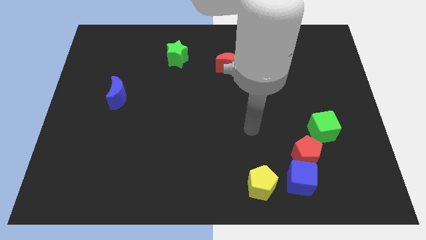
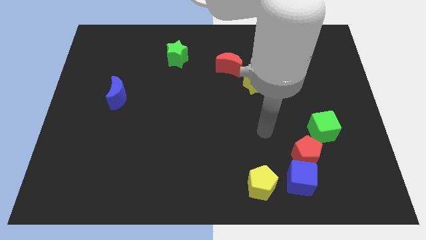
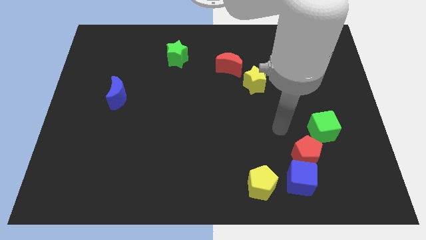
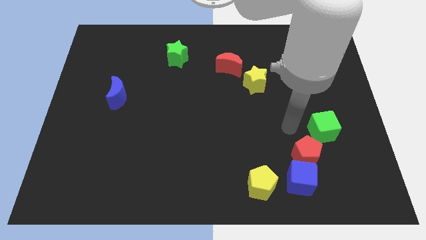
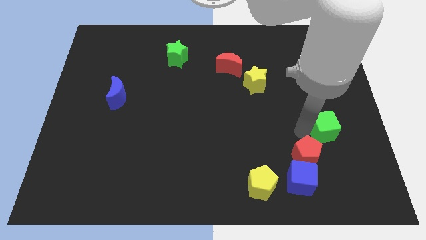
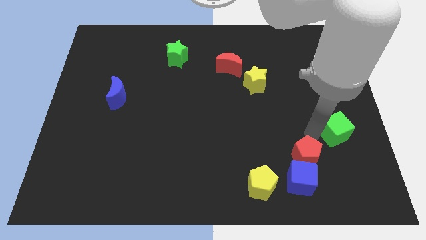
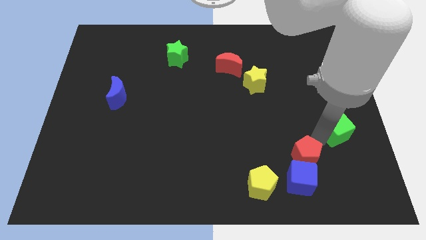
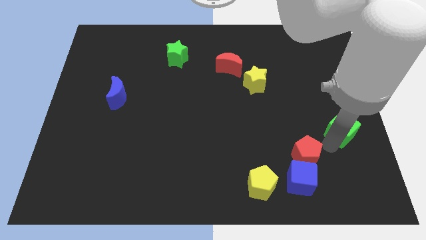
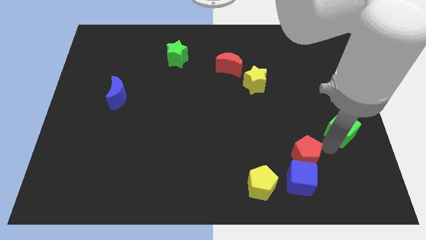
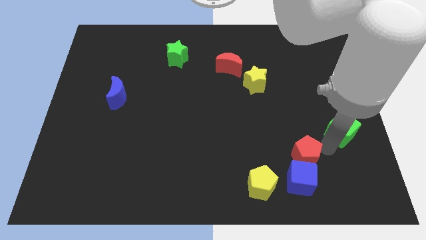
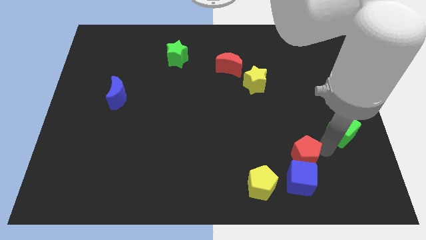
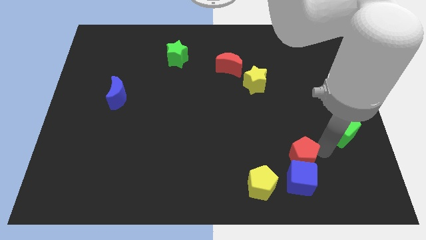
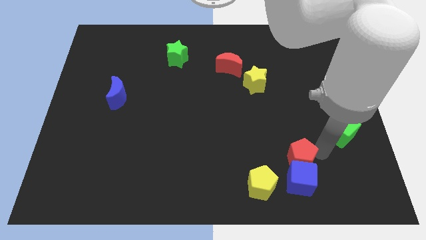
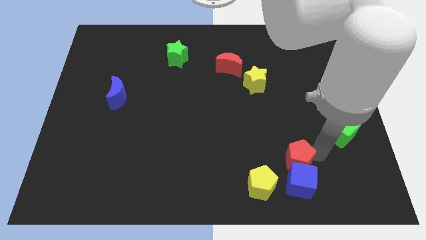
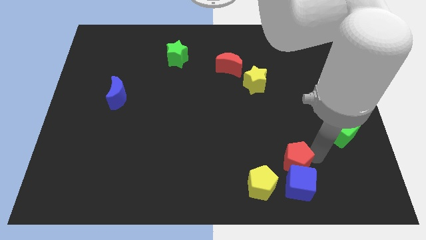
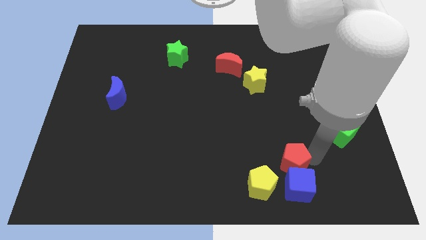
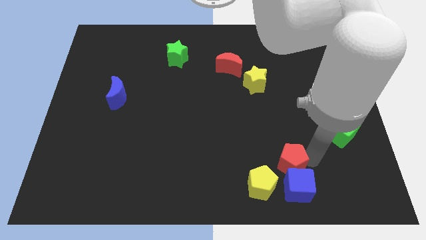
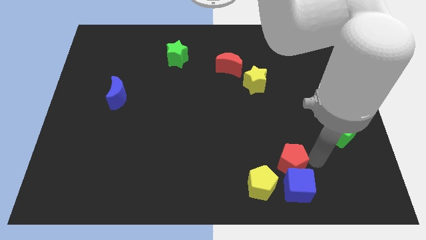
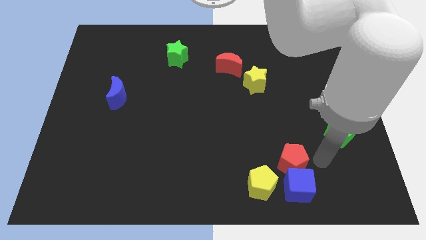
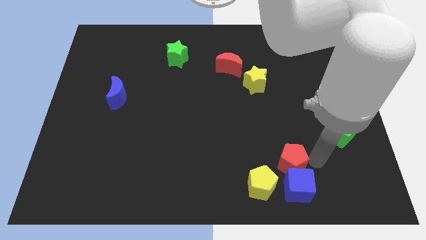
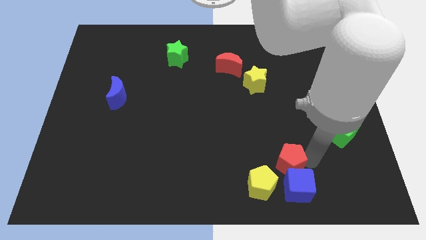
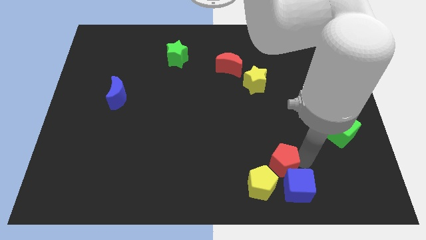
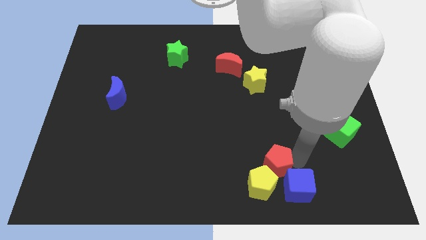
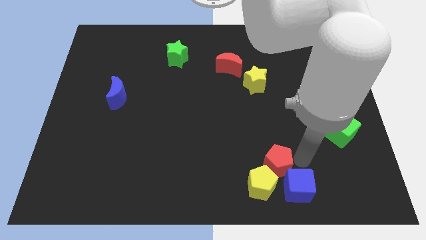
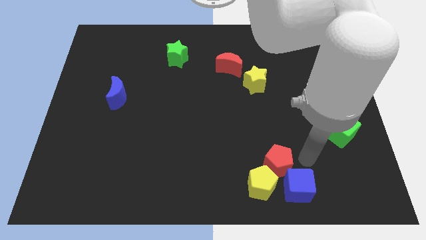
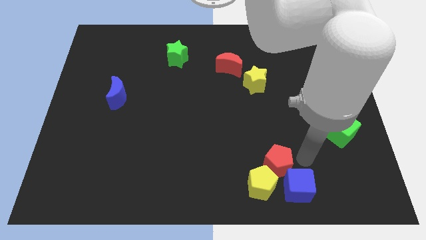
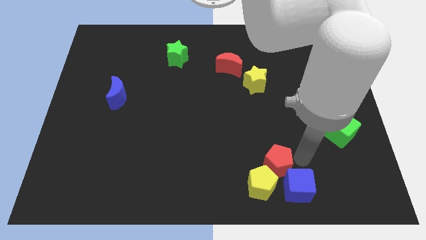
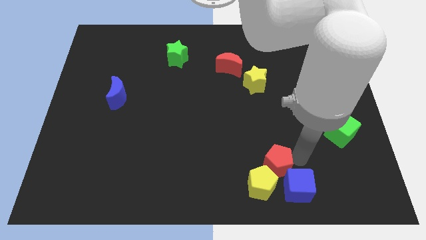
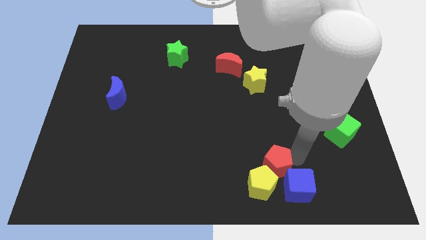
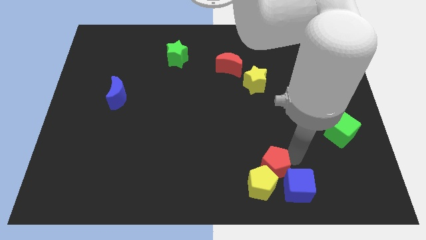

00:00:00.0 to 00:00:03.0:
separate the red pentagon from the blue cube and green cube

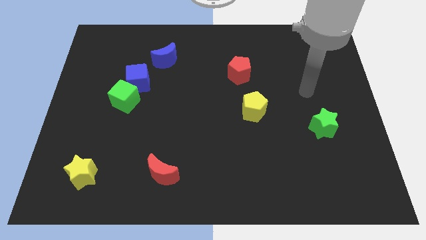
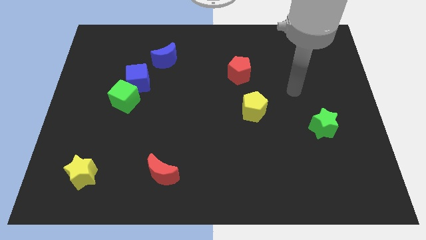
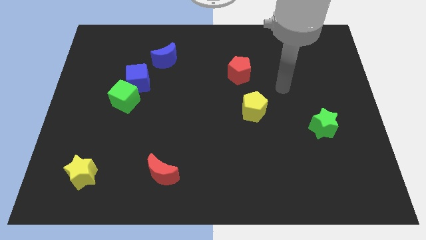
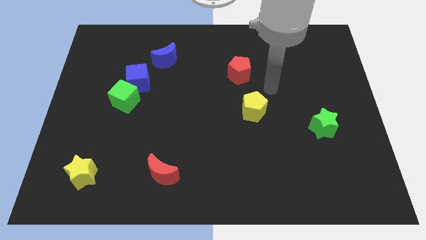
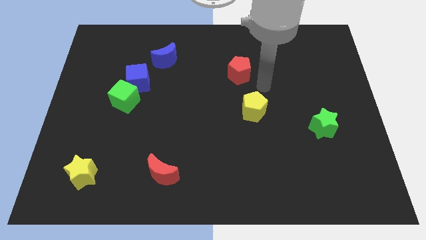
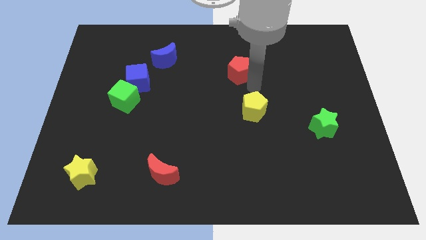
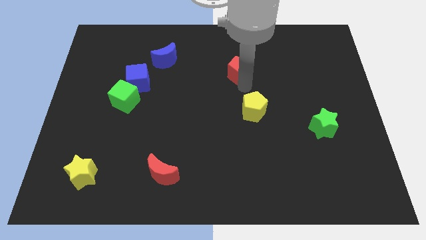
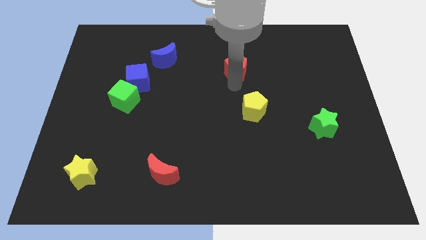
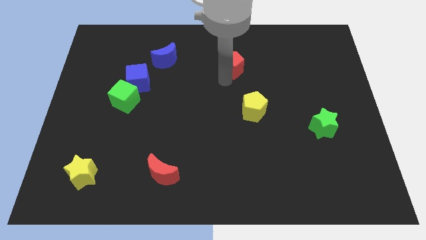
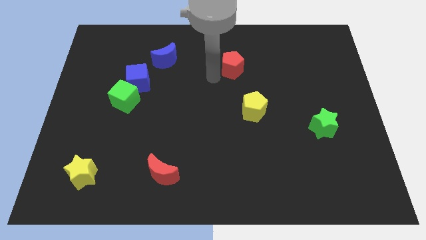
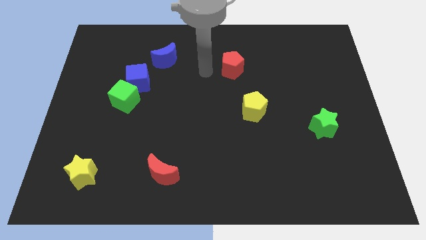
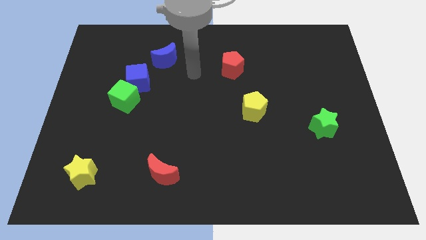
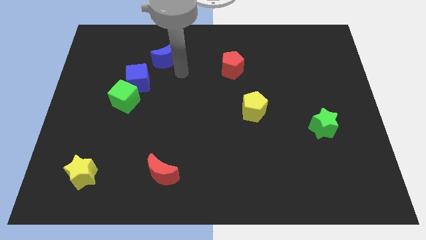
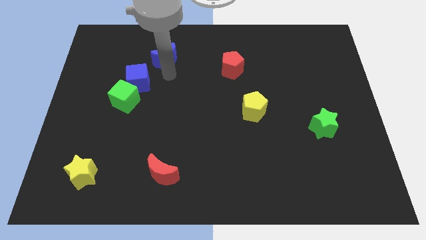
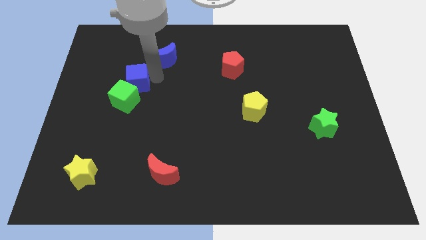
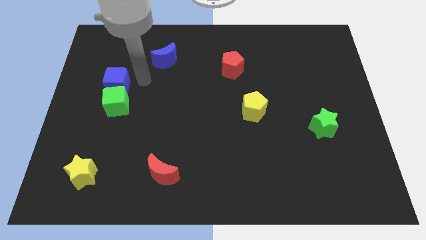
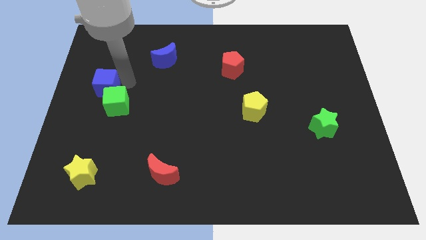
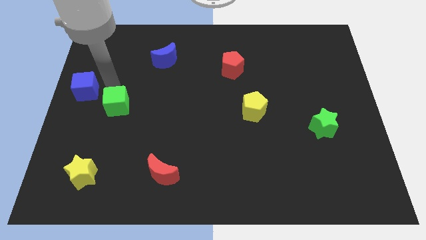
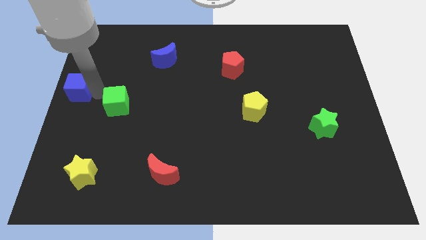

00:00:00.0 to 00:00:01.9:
separate the green cube from the blue cube

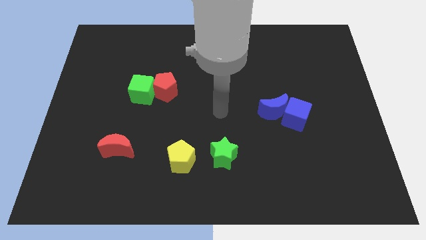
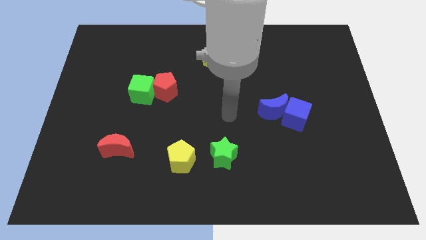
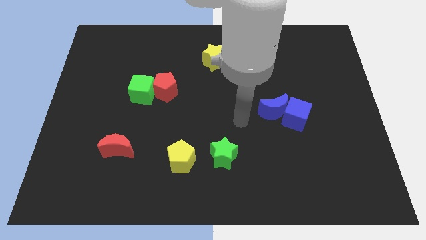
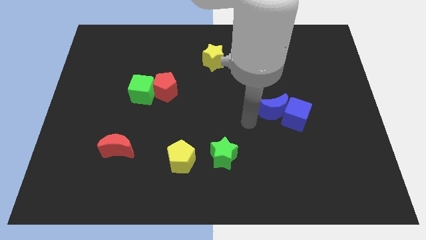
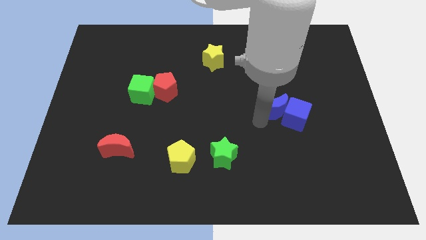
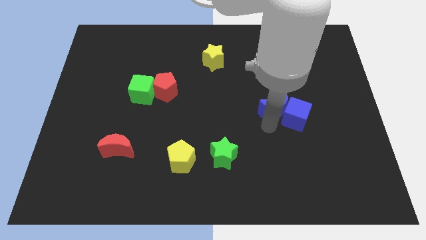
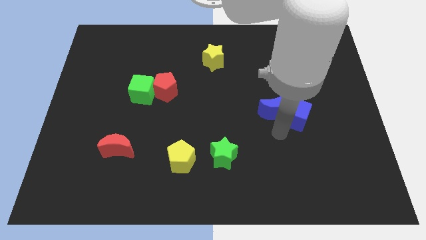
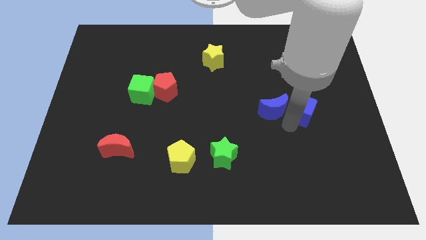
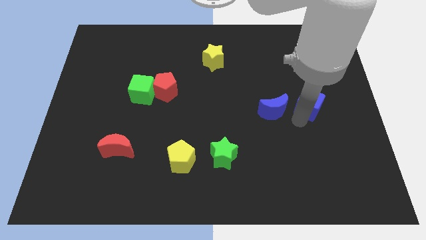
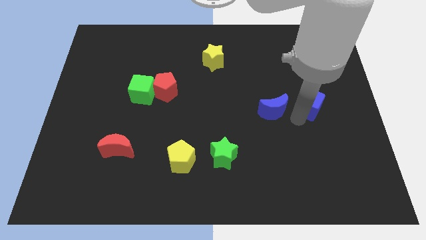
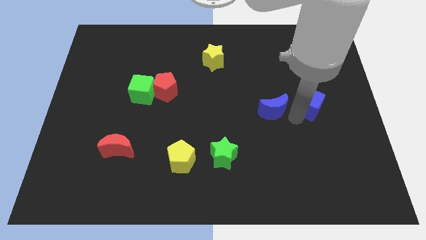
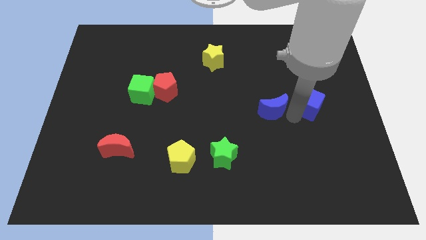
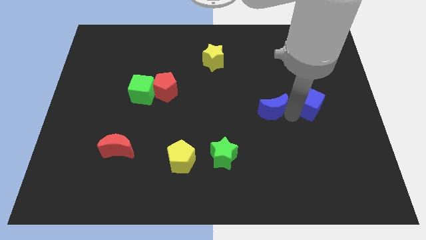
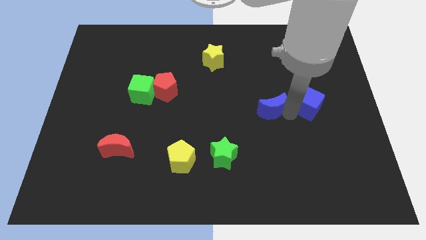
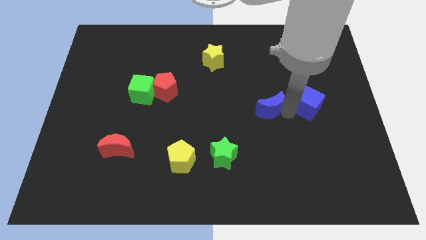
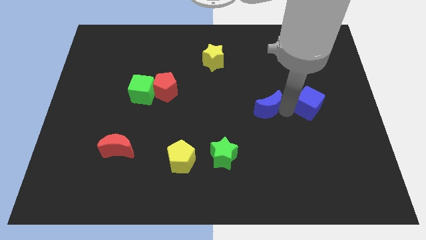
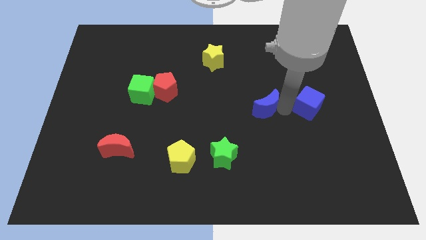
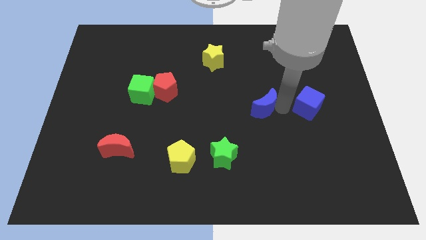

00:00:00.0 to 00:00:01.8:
pull the blue moon apart from the blue cube

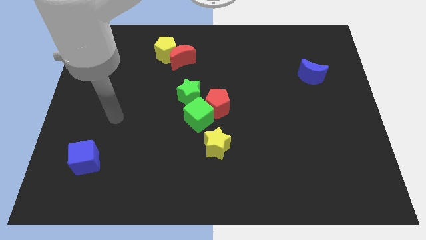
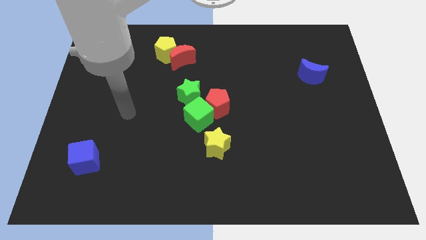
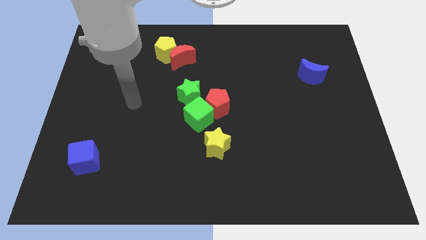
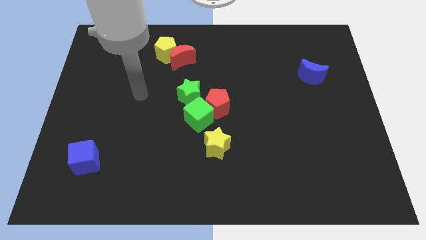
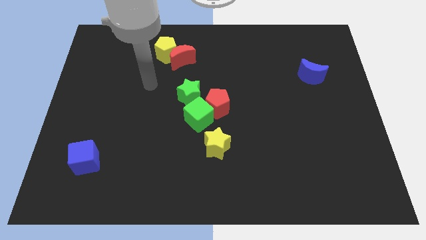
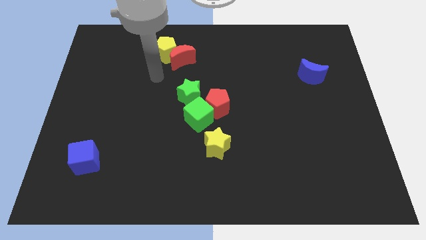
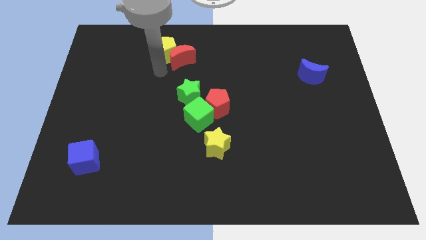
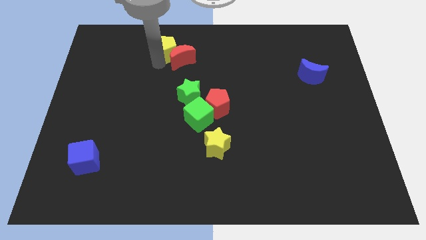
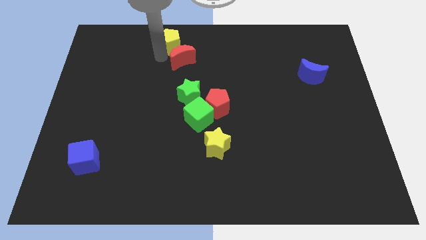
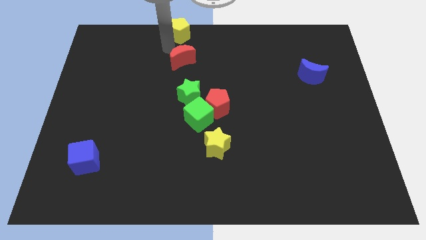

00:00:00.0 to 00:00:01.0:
pull the red moon apart from the yellow pentagon

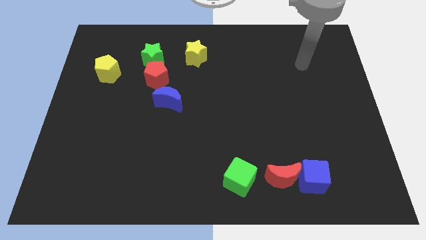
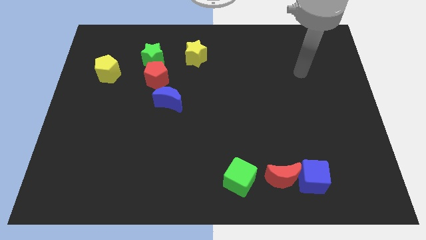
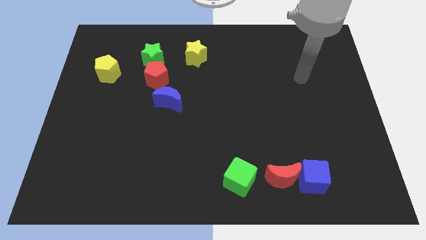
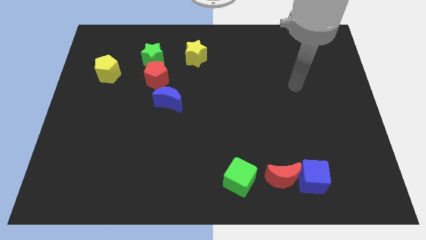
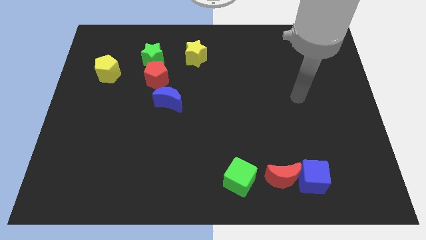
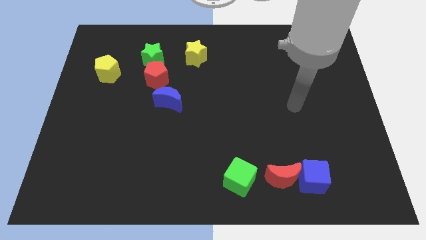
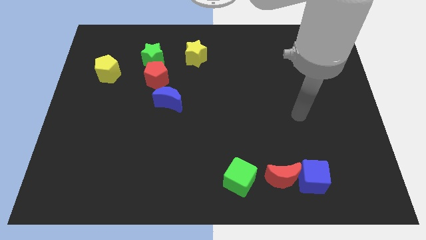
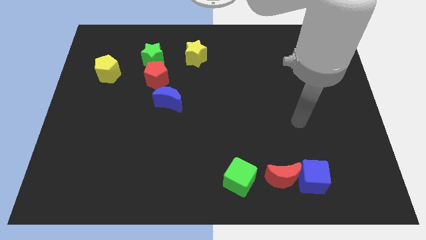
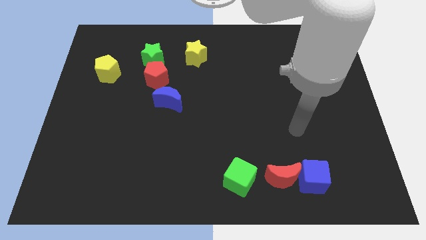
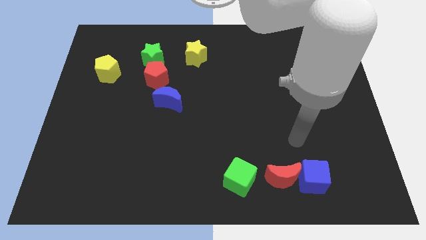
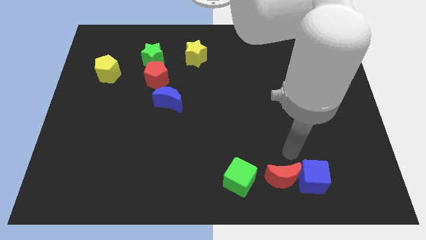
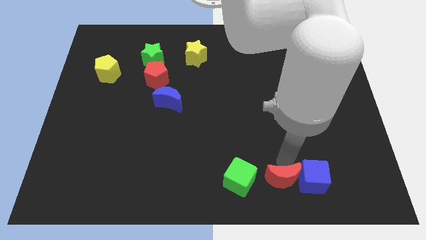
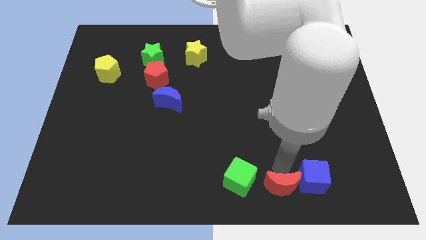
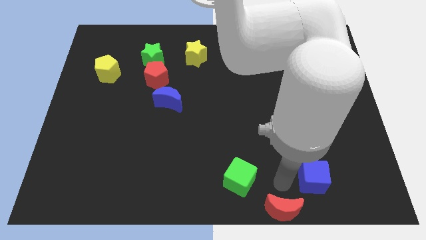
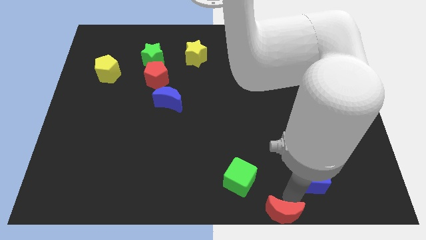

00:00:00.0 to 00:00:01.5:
pull the blue cube apart from the red moon
